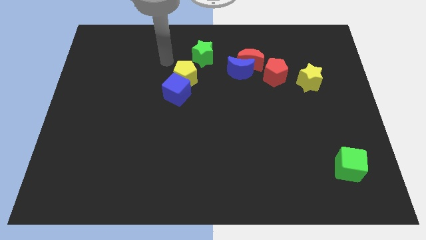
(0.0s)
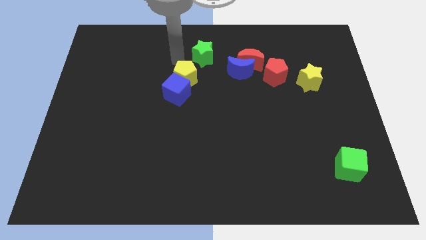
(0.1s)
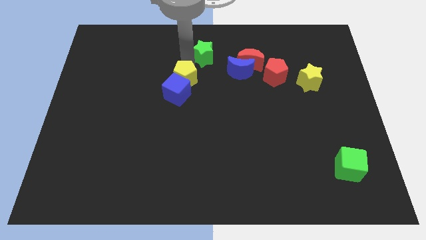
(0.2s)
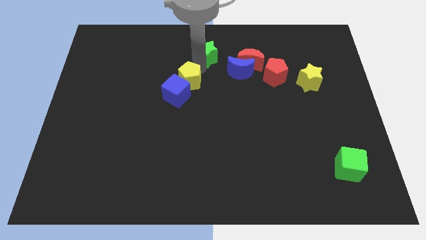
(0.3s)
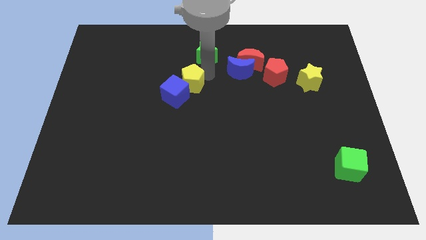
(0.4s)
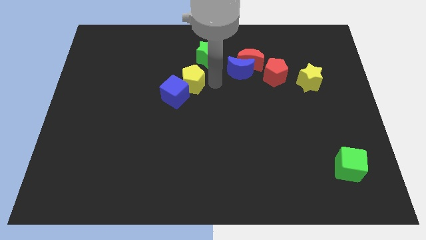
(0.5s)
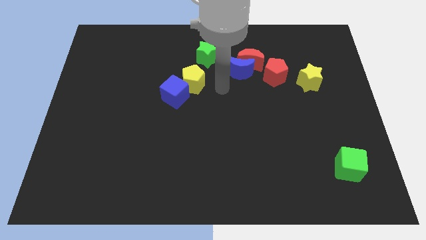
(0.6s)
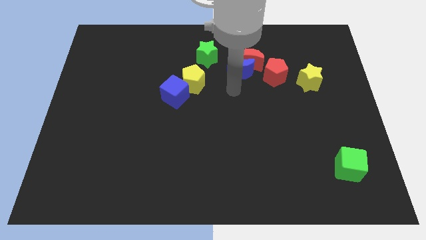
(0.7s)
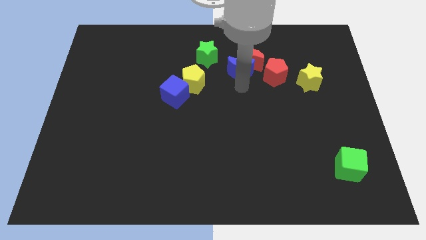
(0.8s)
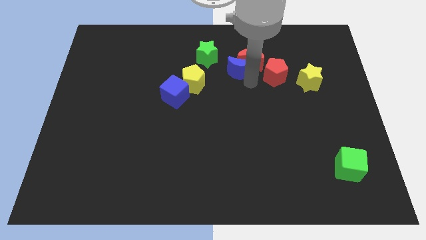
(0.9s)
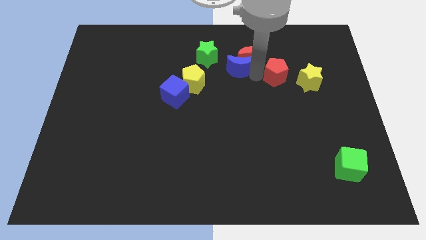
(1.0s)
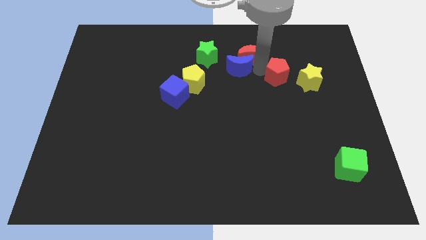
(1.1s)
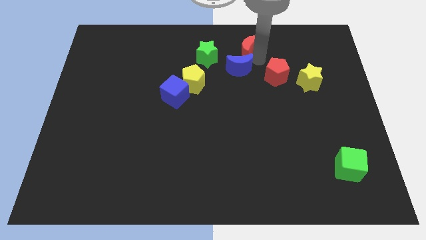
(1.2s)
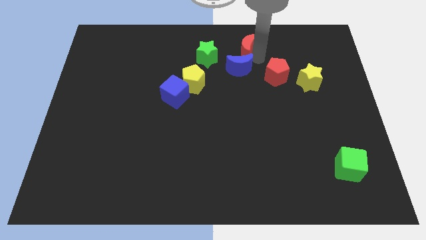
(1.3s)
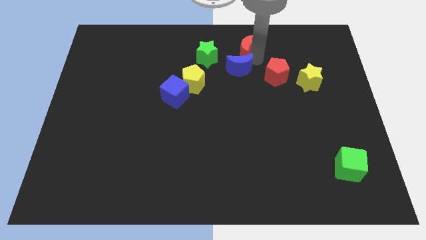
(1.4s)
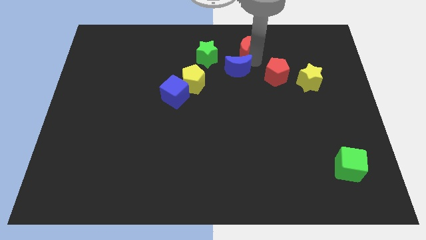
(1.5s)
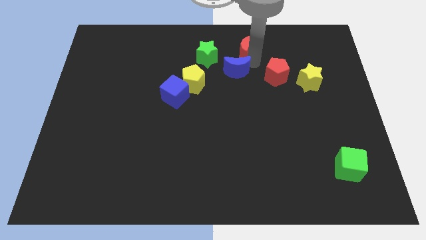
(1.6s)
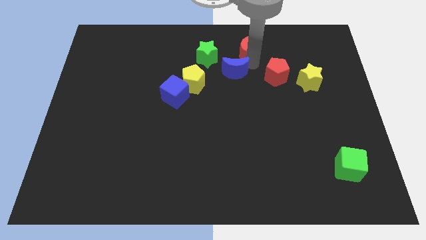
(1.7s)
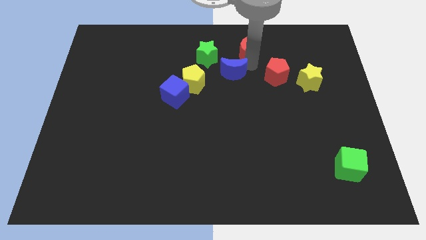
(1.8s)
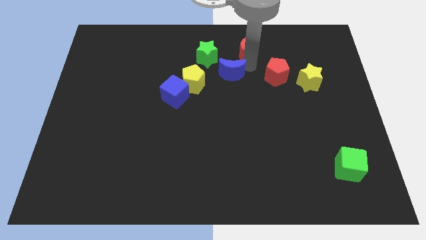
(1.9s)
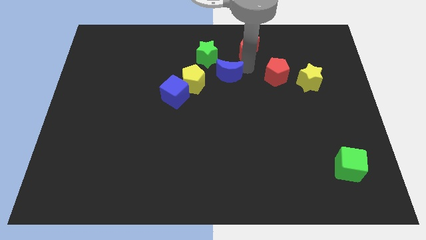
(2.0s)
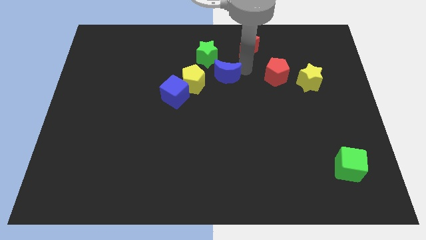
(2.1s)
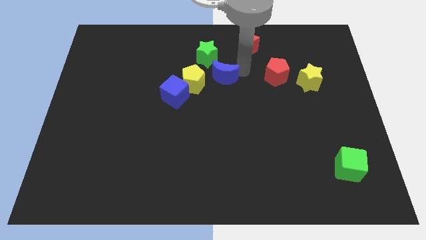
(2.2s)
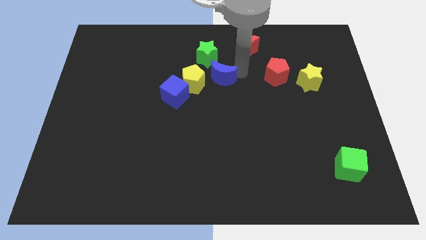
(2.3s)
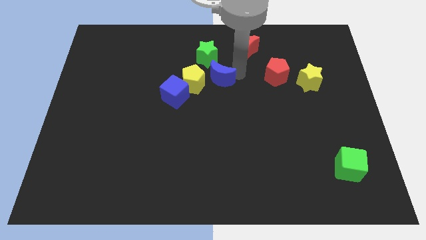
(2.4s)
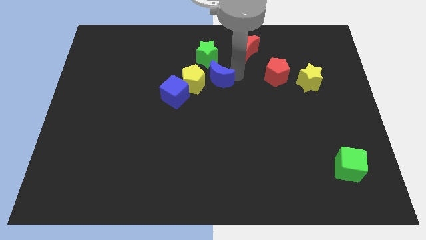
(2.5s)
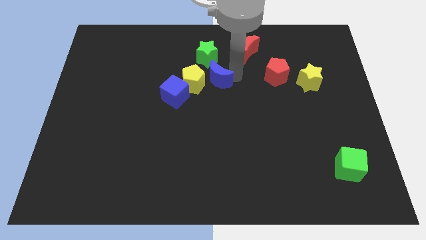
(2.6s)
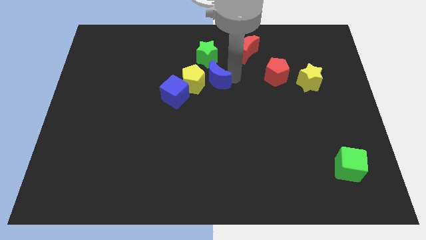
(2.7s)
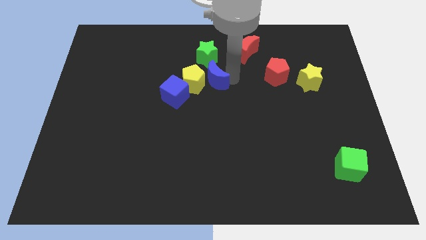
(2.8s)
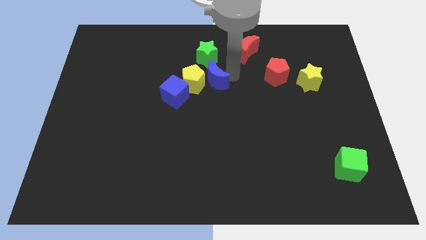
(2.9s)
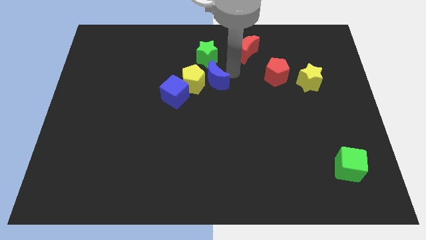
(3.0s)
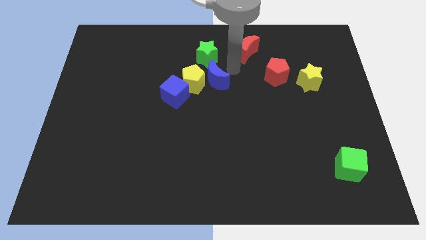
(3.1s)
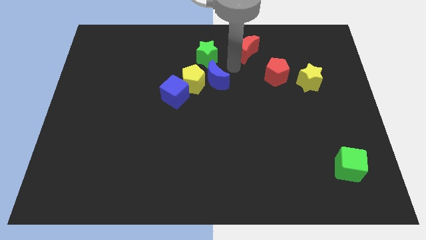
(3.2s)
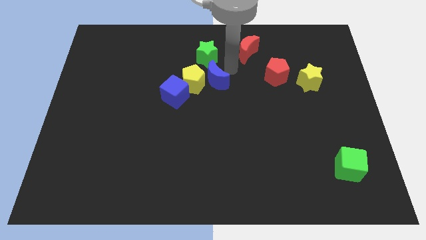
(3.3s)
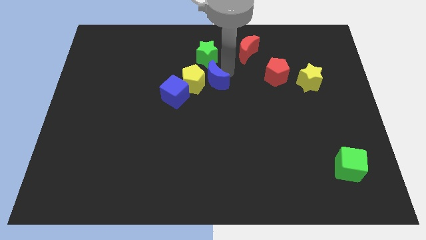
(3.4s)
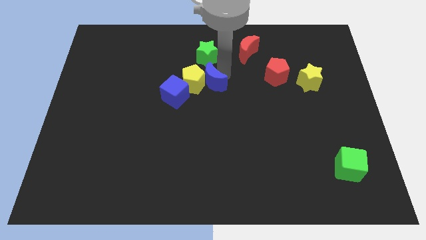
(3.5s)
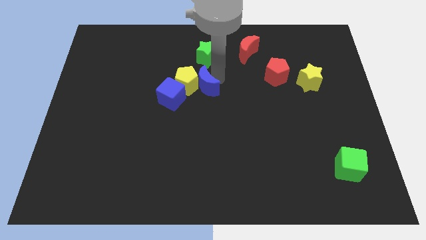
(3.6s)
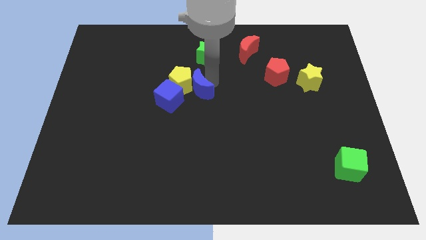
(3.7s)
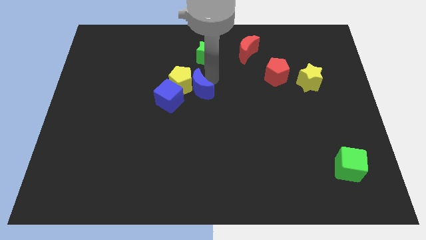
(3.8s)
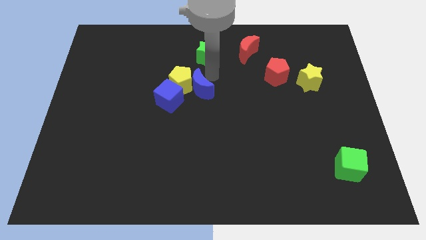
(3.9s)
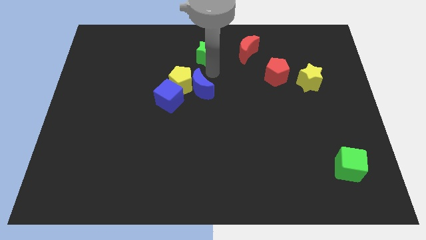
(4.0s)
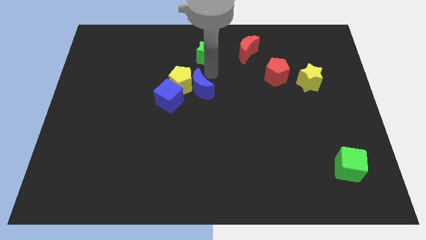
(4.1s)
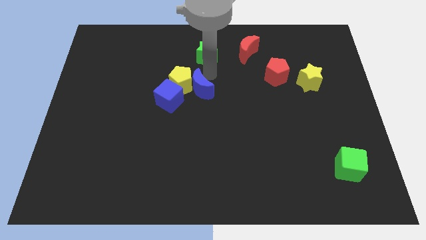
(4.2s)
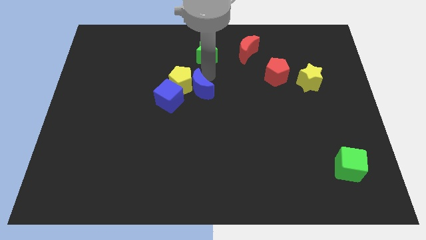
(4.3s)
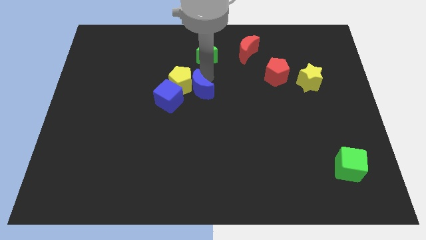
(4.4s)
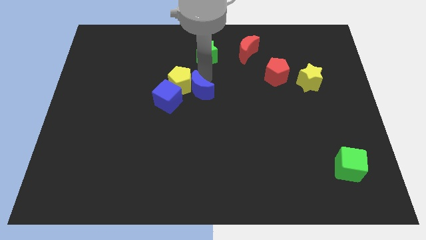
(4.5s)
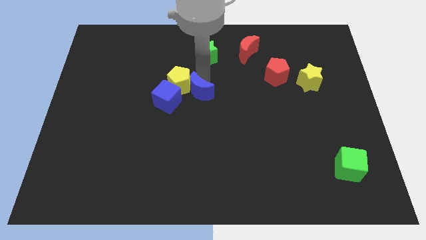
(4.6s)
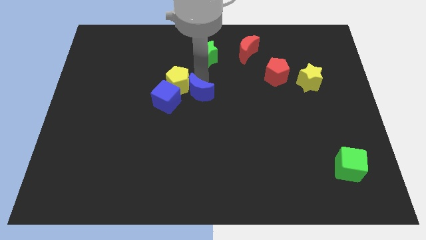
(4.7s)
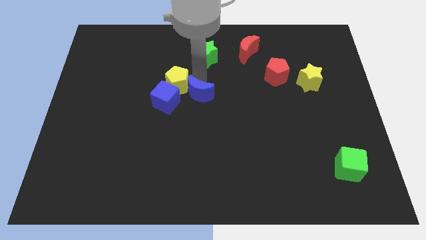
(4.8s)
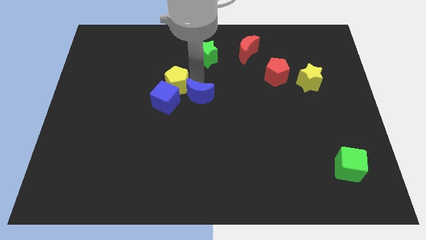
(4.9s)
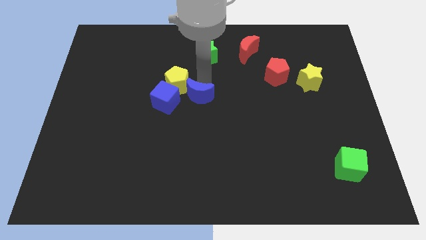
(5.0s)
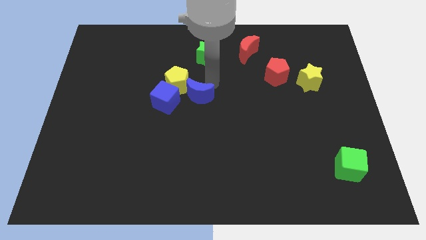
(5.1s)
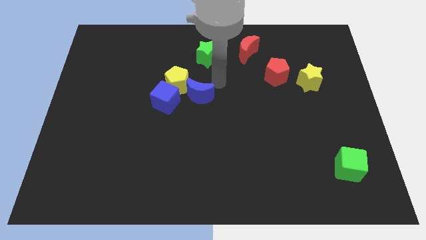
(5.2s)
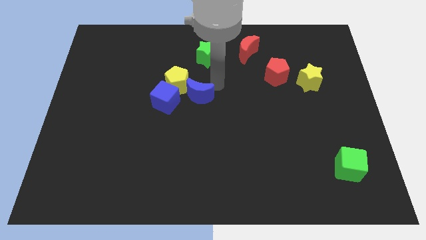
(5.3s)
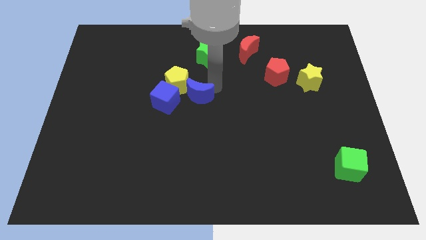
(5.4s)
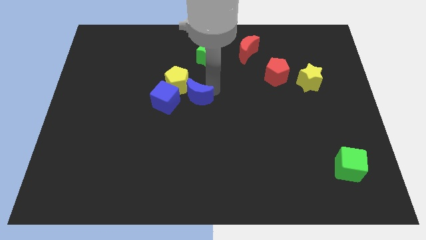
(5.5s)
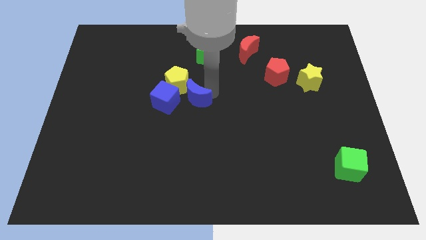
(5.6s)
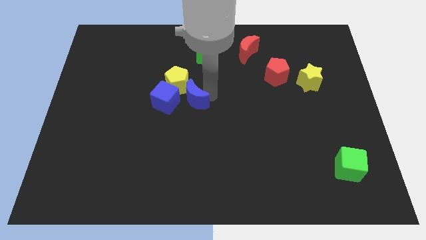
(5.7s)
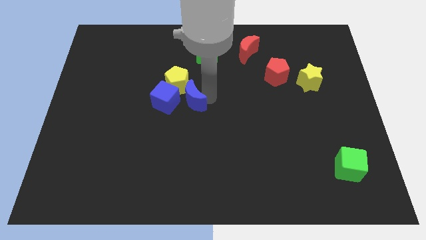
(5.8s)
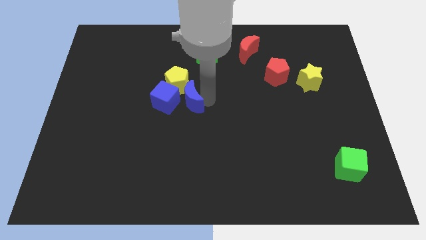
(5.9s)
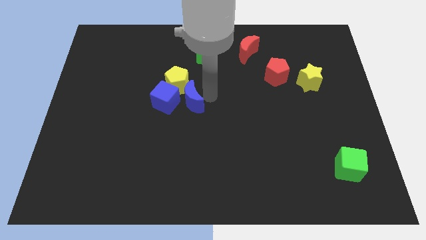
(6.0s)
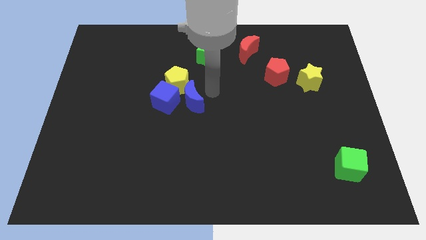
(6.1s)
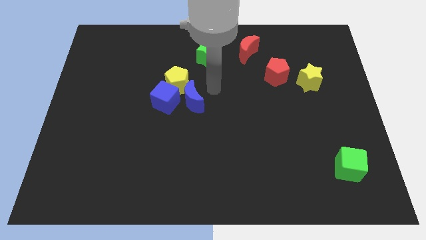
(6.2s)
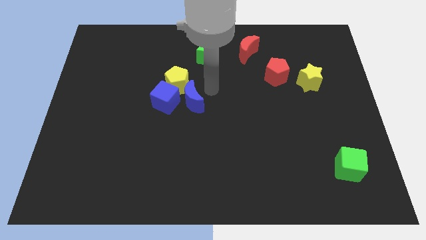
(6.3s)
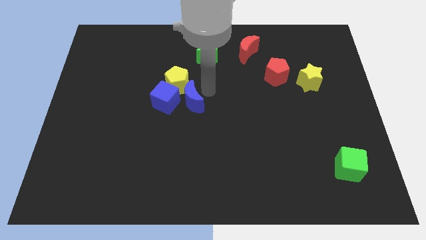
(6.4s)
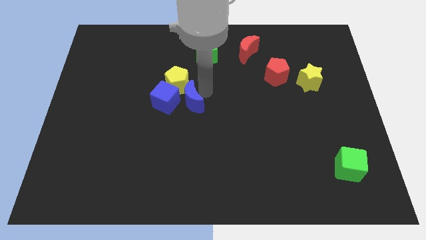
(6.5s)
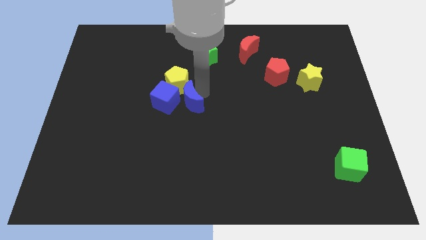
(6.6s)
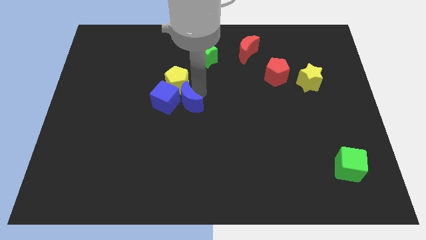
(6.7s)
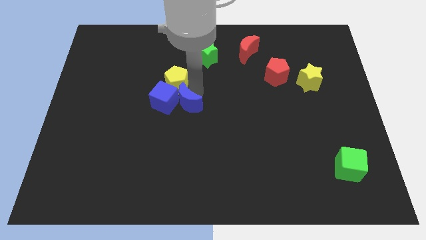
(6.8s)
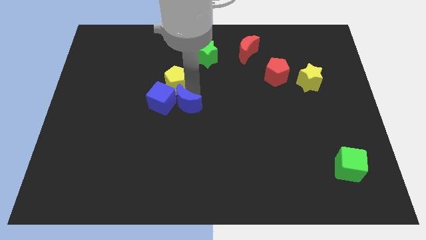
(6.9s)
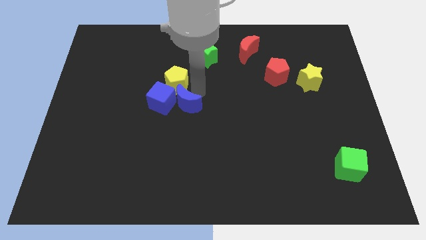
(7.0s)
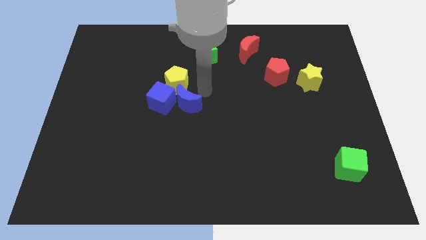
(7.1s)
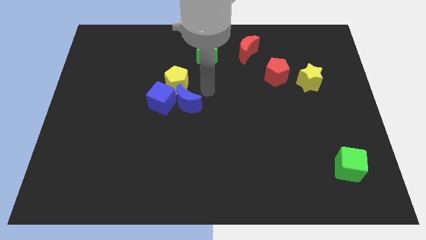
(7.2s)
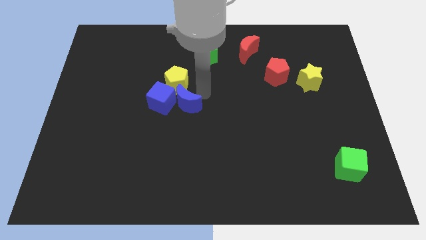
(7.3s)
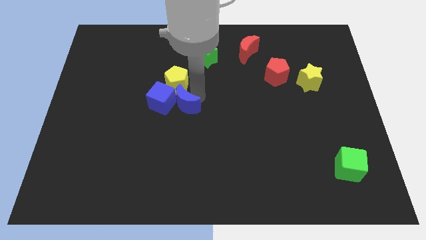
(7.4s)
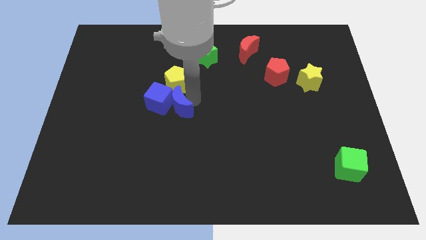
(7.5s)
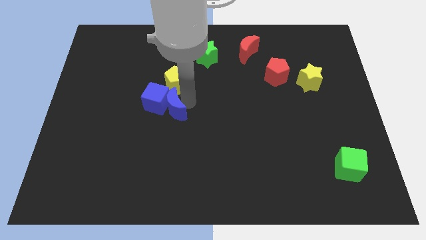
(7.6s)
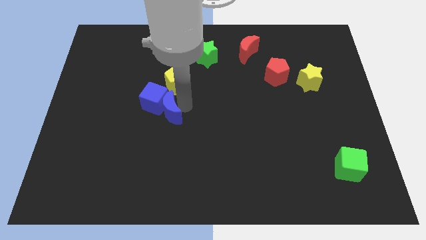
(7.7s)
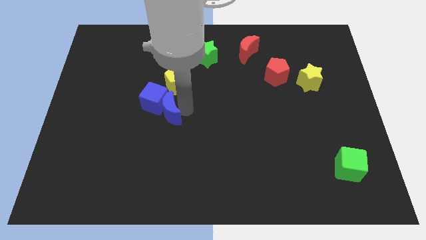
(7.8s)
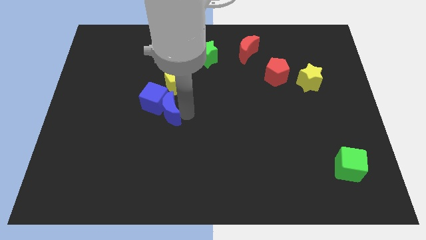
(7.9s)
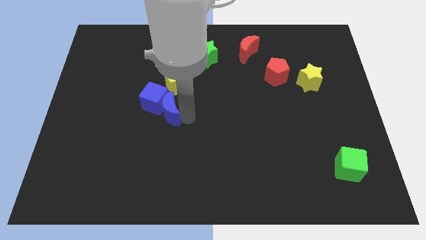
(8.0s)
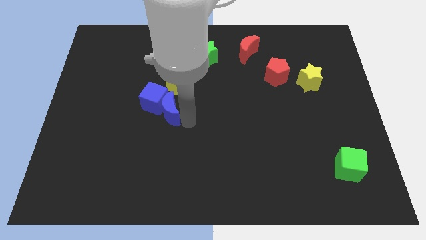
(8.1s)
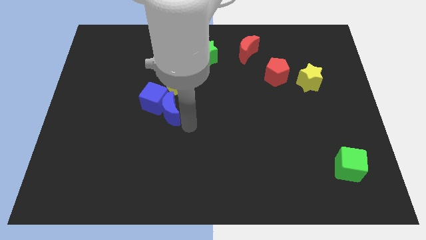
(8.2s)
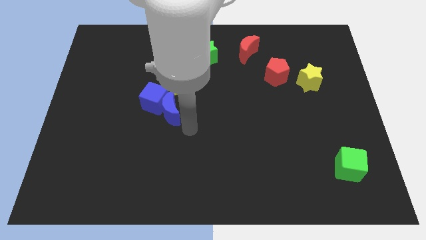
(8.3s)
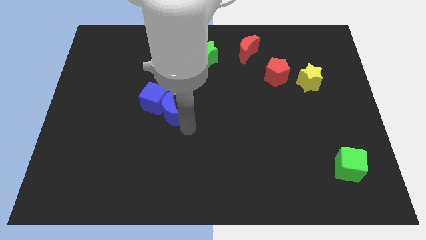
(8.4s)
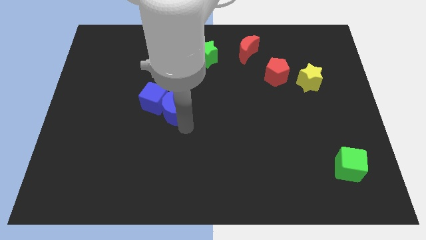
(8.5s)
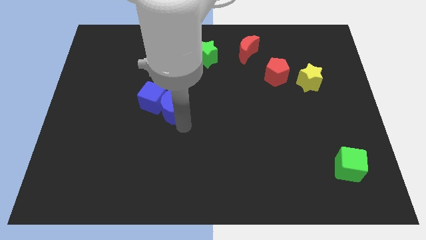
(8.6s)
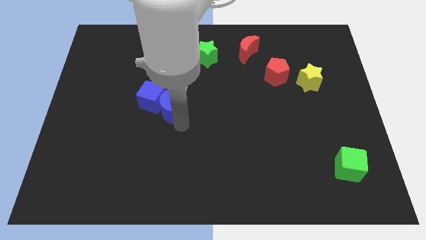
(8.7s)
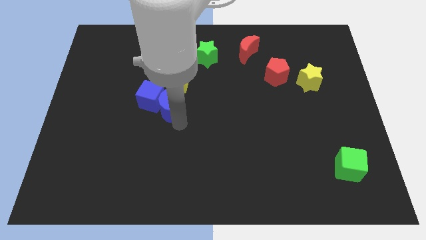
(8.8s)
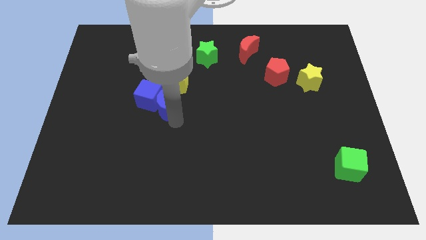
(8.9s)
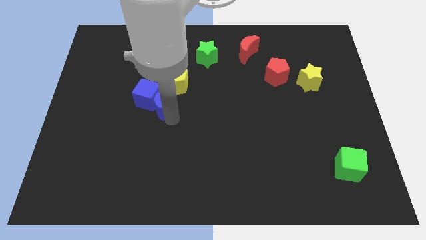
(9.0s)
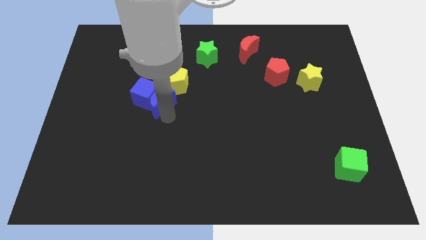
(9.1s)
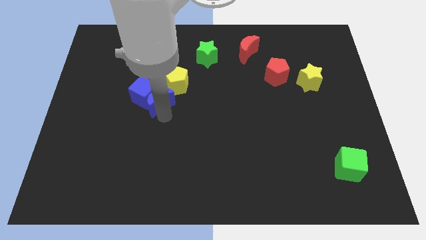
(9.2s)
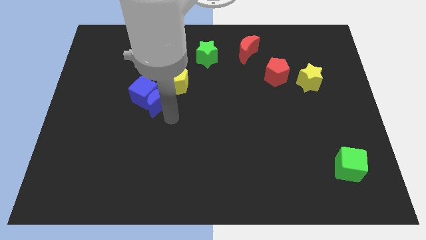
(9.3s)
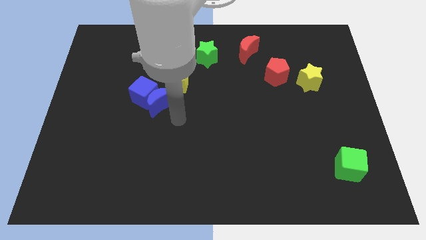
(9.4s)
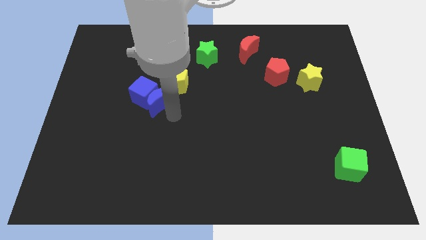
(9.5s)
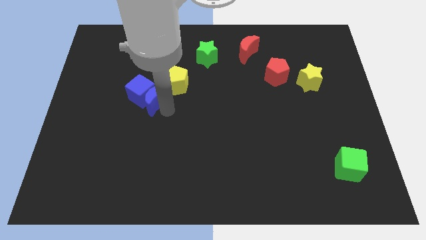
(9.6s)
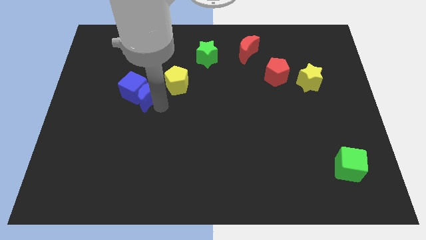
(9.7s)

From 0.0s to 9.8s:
put the blue moon to the left of the yellow pentagon
